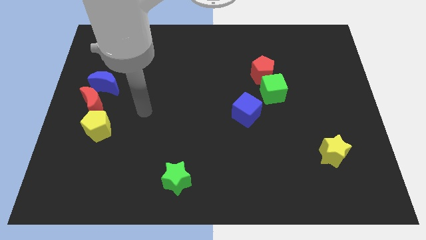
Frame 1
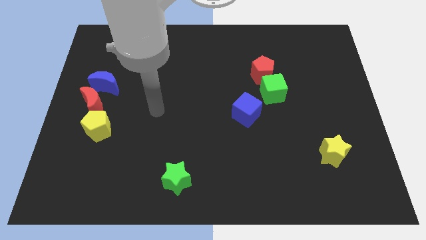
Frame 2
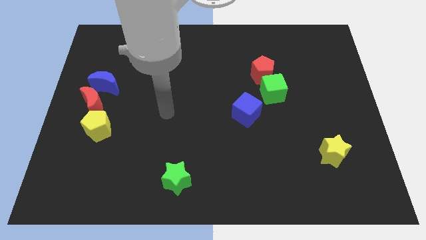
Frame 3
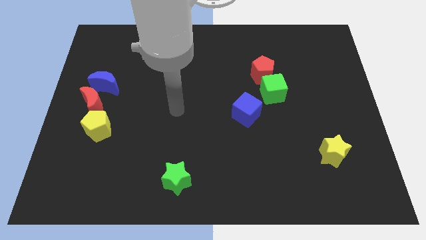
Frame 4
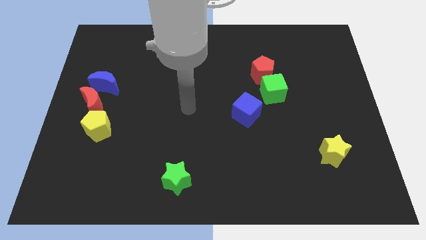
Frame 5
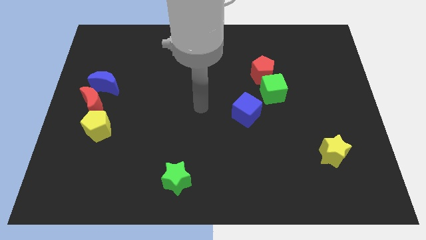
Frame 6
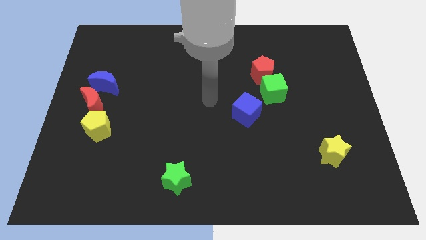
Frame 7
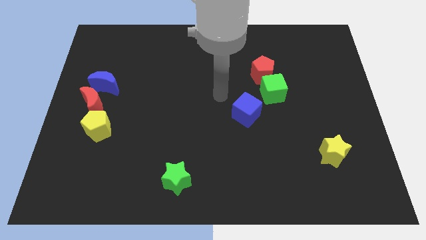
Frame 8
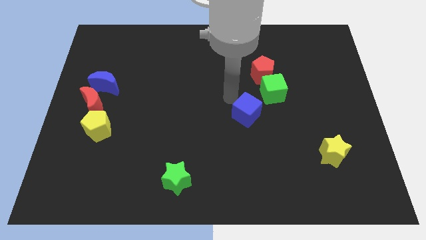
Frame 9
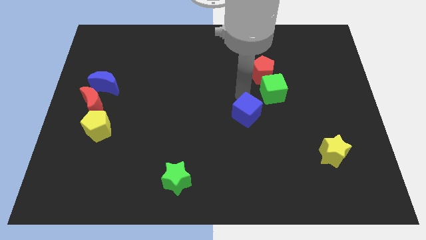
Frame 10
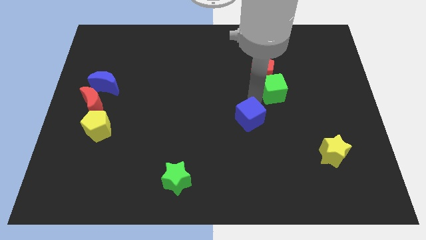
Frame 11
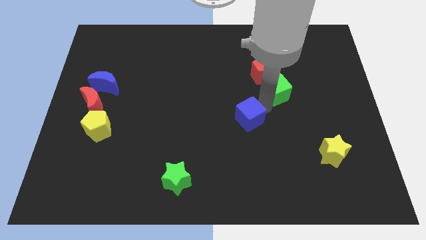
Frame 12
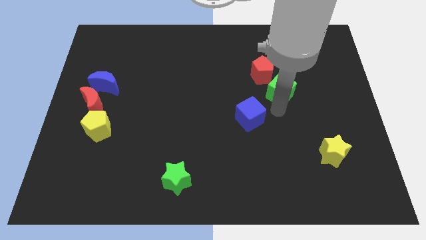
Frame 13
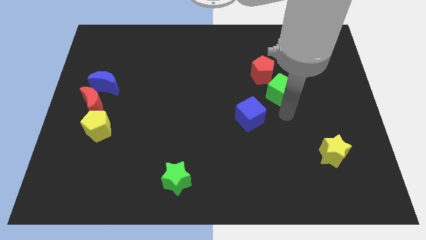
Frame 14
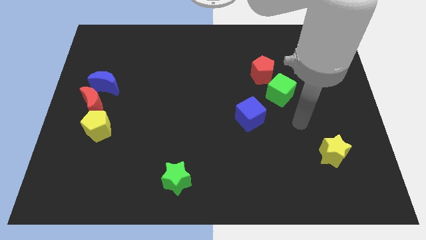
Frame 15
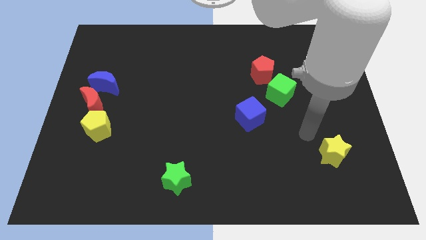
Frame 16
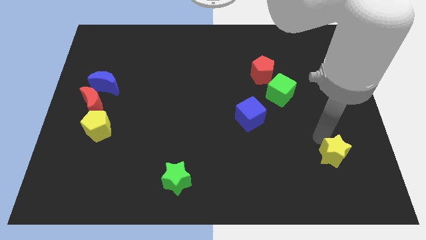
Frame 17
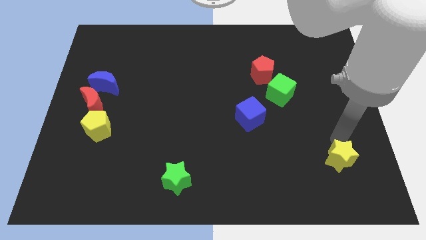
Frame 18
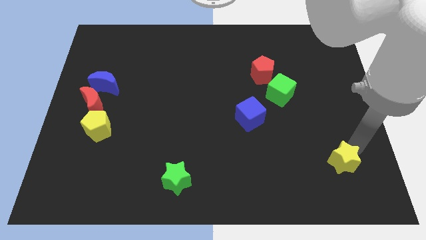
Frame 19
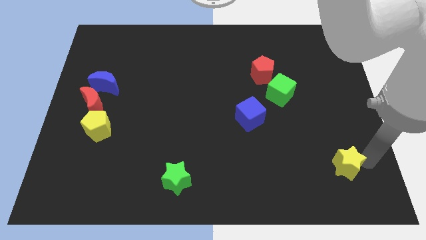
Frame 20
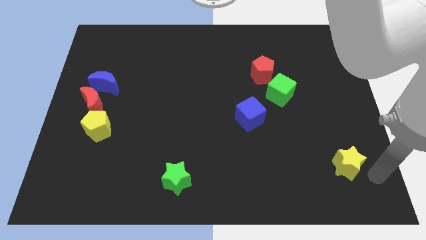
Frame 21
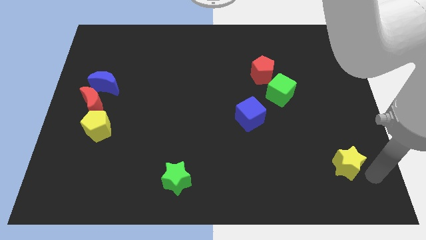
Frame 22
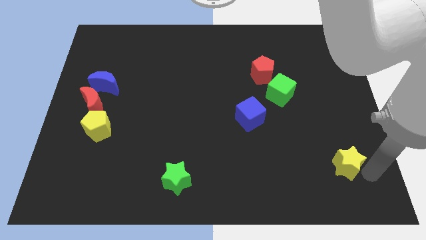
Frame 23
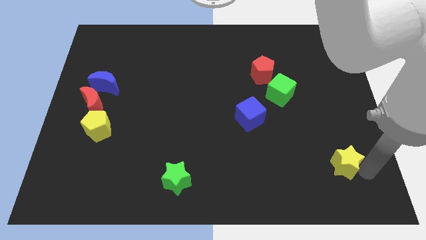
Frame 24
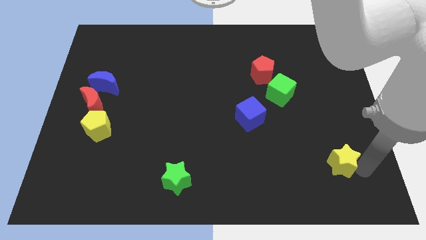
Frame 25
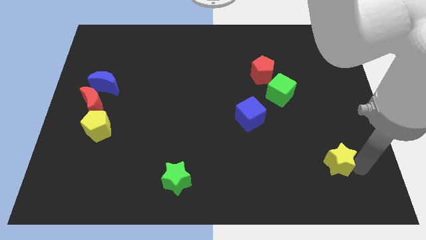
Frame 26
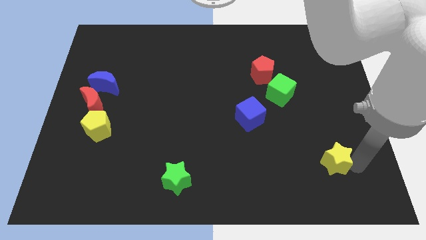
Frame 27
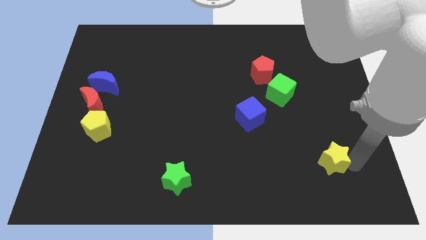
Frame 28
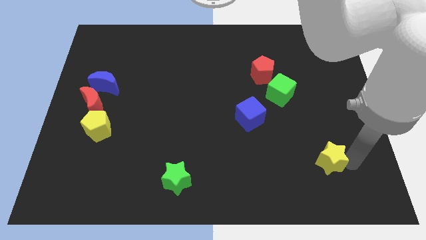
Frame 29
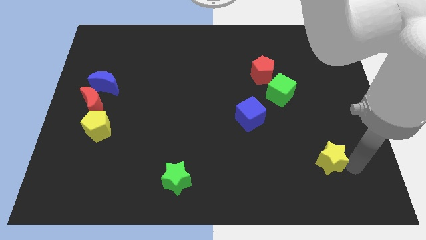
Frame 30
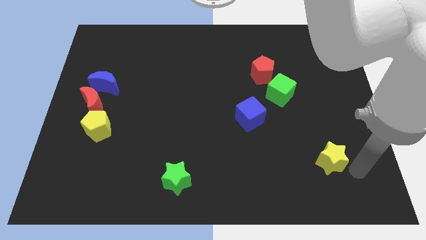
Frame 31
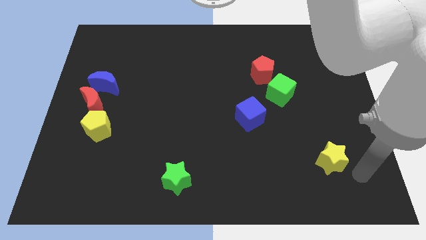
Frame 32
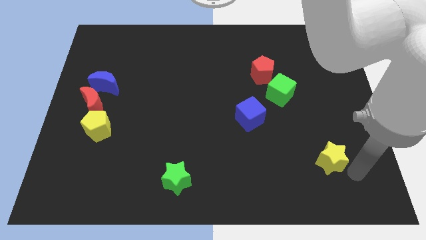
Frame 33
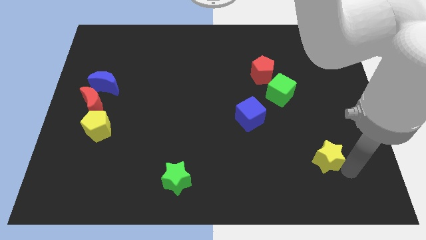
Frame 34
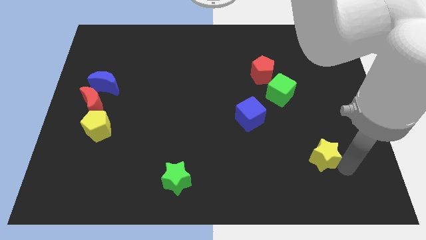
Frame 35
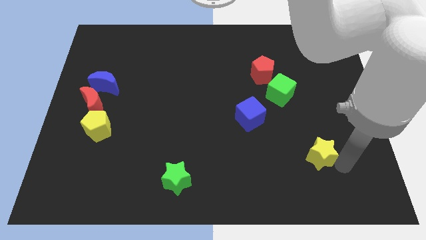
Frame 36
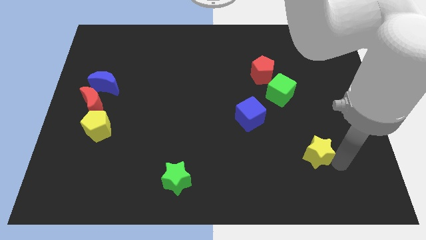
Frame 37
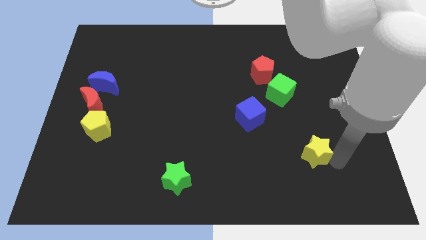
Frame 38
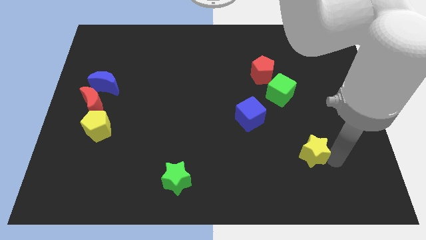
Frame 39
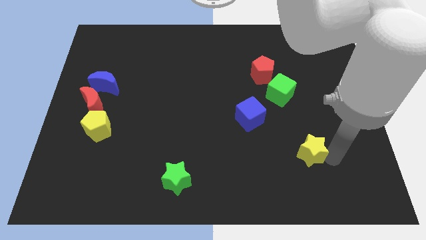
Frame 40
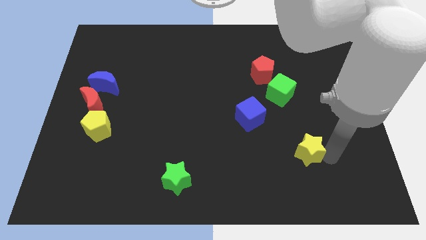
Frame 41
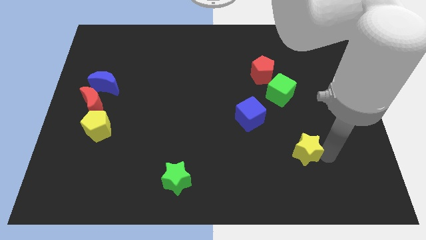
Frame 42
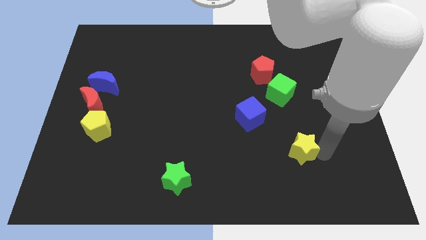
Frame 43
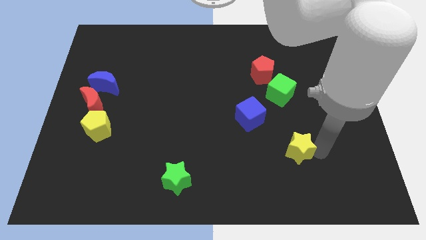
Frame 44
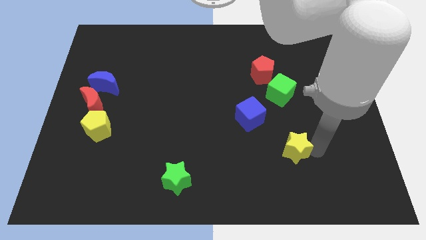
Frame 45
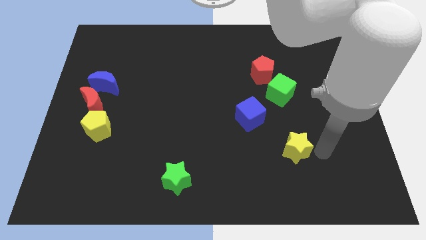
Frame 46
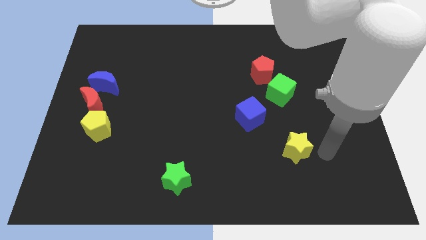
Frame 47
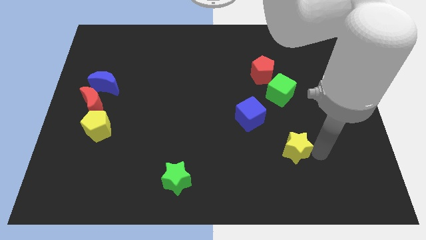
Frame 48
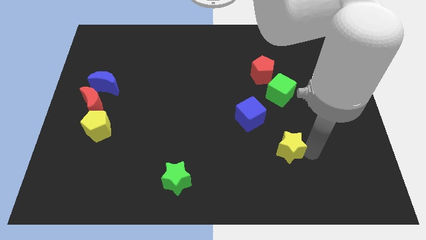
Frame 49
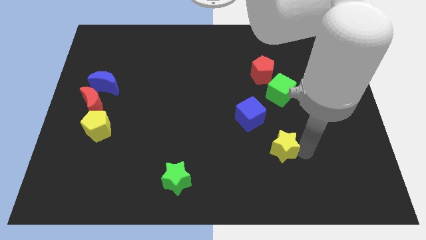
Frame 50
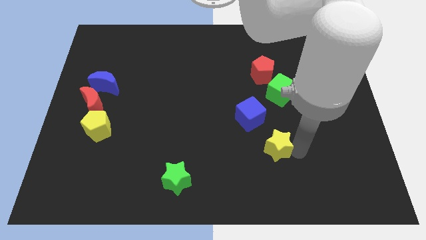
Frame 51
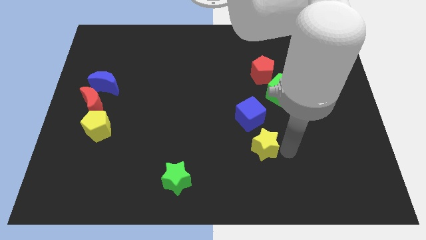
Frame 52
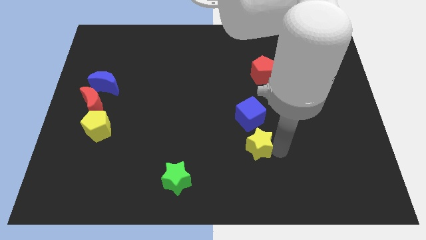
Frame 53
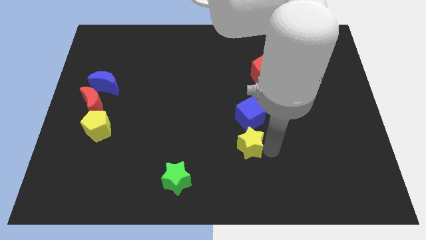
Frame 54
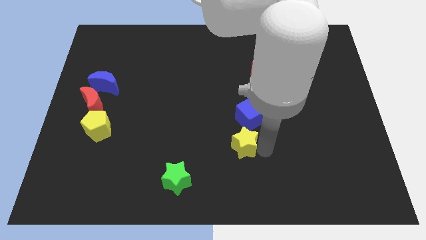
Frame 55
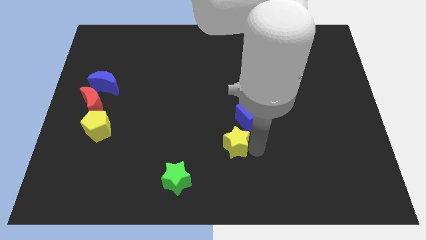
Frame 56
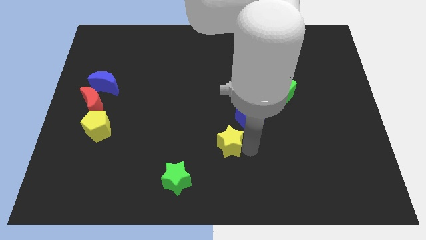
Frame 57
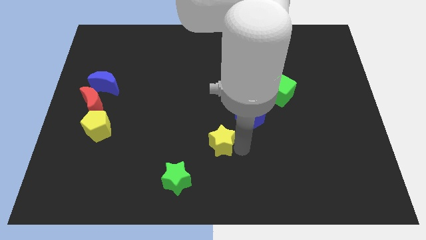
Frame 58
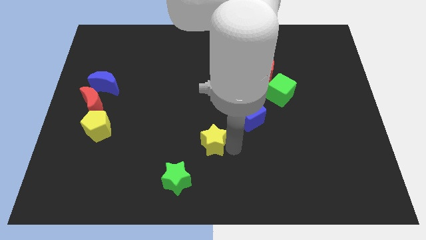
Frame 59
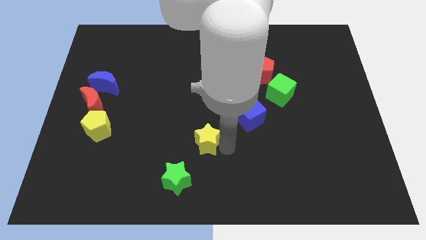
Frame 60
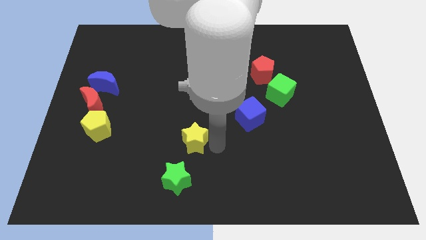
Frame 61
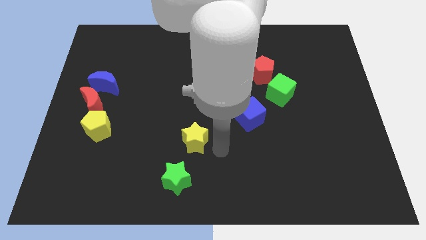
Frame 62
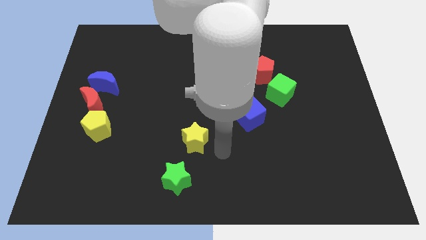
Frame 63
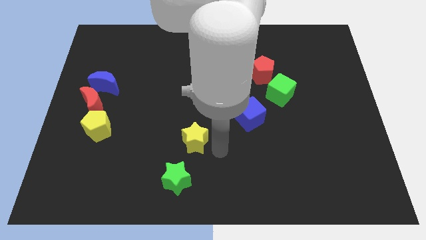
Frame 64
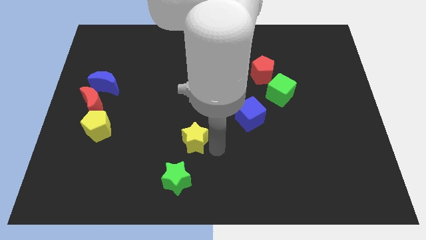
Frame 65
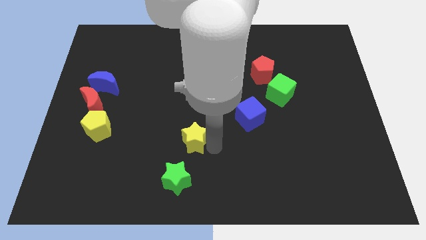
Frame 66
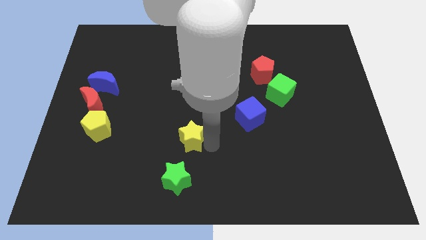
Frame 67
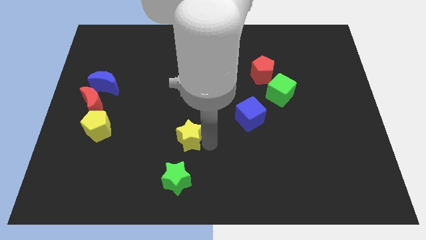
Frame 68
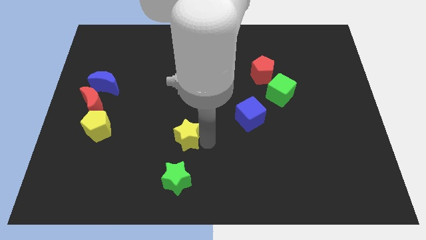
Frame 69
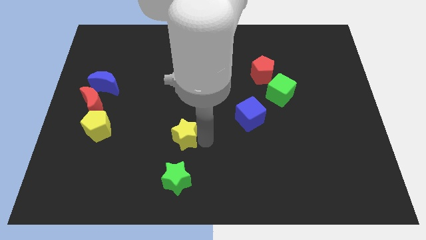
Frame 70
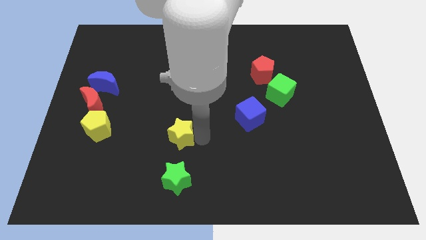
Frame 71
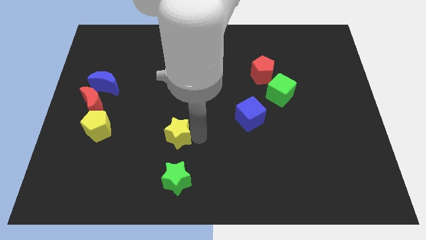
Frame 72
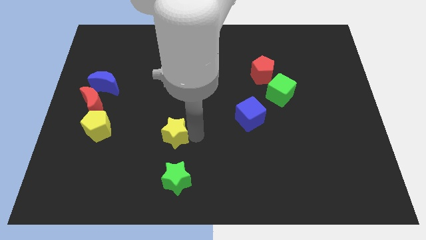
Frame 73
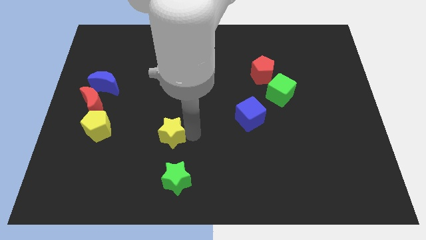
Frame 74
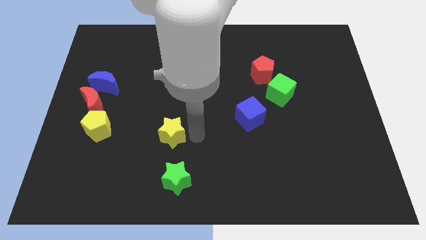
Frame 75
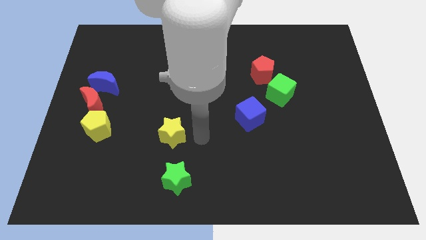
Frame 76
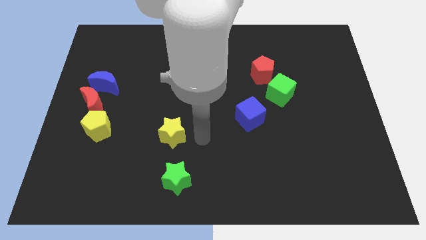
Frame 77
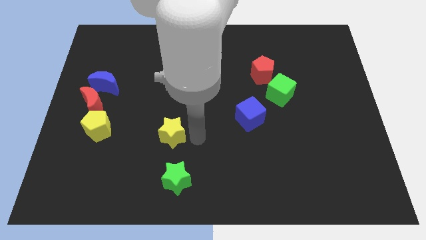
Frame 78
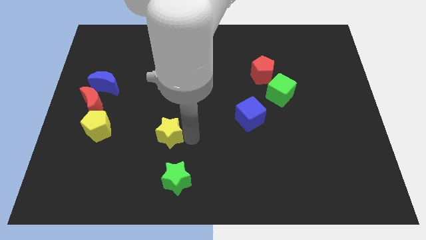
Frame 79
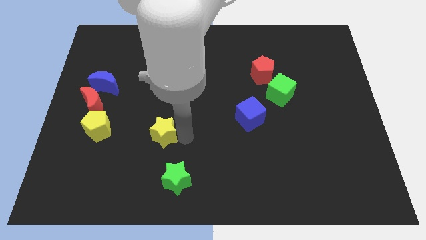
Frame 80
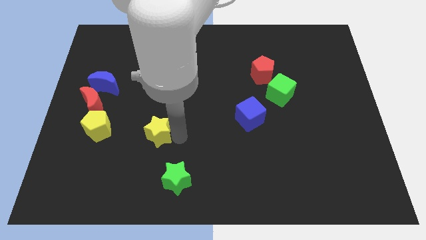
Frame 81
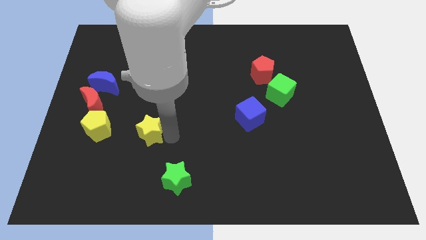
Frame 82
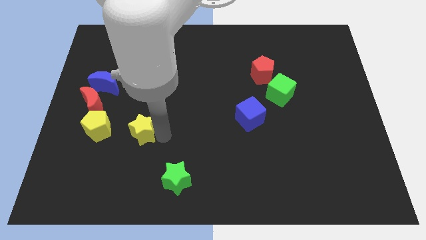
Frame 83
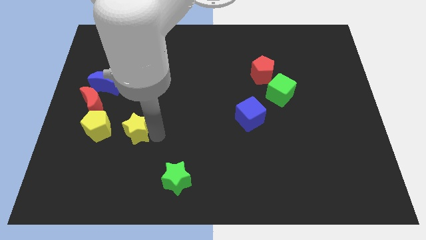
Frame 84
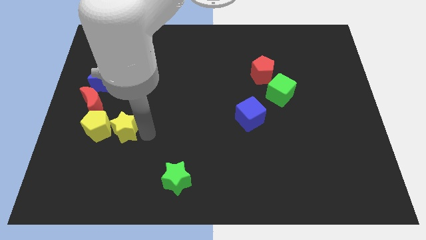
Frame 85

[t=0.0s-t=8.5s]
move the yellow star close to the yellow pentagon
